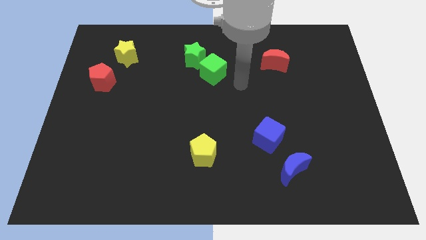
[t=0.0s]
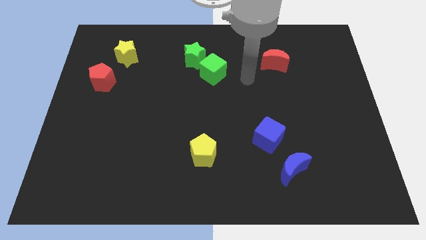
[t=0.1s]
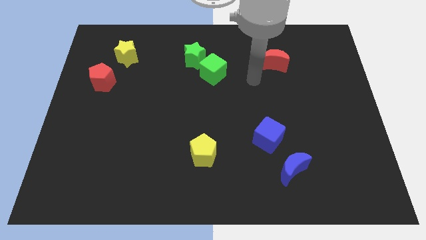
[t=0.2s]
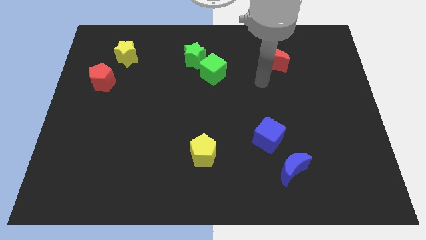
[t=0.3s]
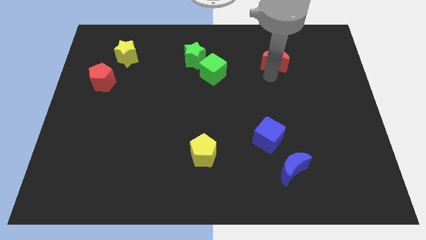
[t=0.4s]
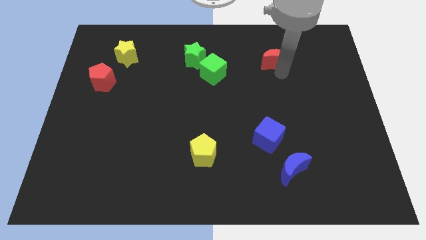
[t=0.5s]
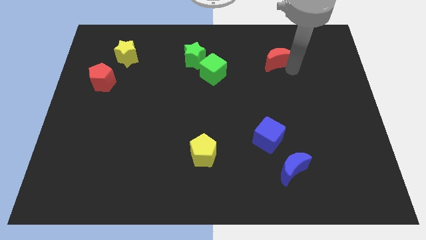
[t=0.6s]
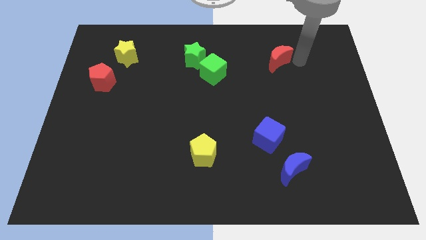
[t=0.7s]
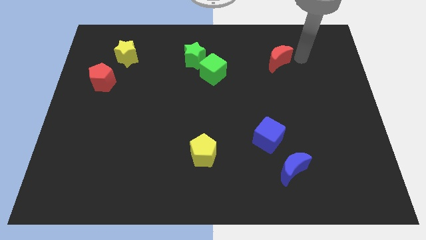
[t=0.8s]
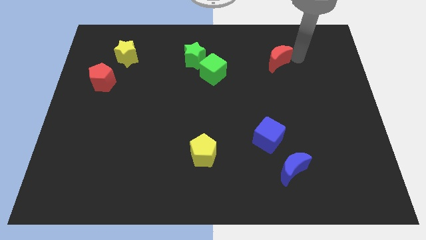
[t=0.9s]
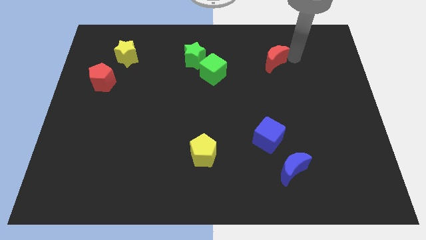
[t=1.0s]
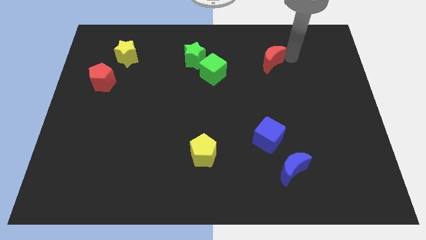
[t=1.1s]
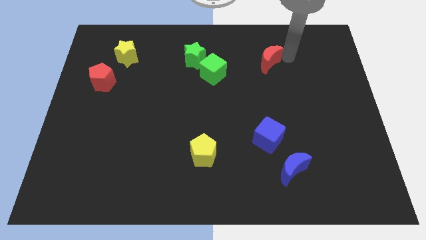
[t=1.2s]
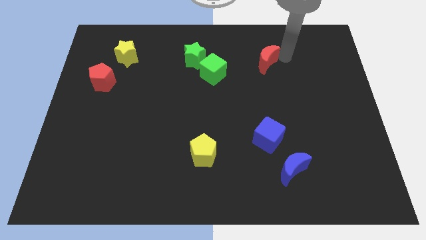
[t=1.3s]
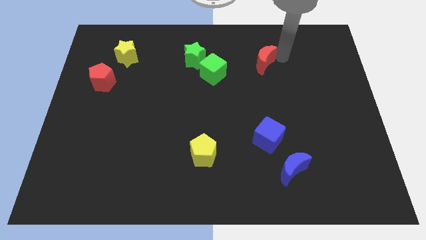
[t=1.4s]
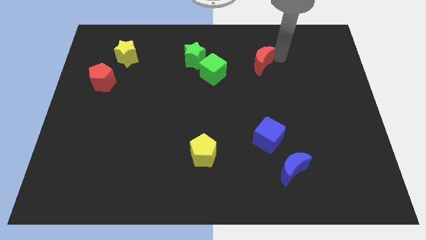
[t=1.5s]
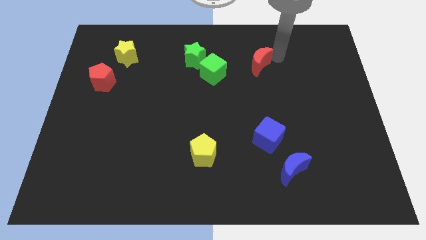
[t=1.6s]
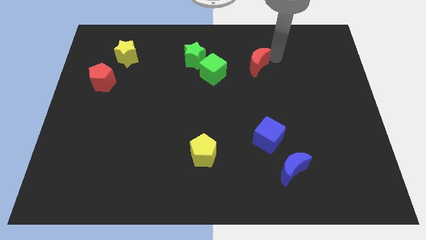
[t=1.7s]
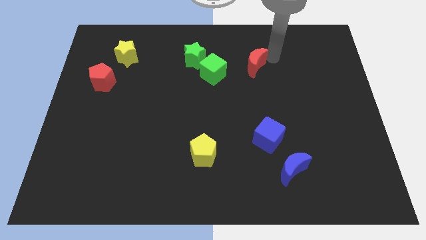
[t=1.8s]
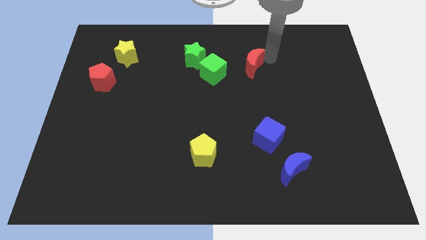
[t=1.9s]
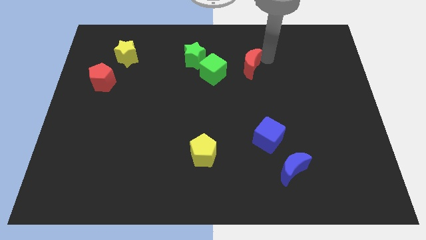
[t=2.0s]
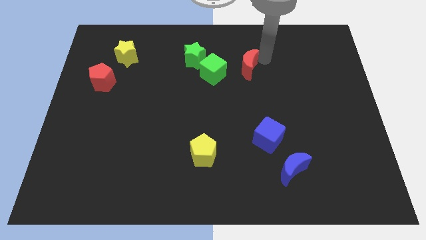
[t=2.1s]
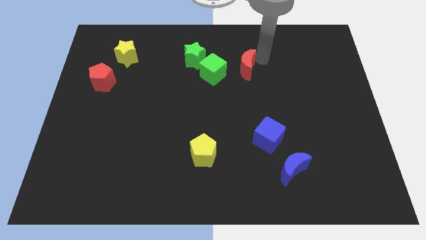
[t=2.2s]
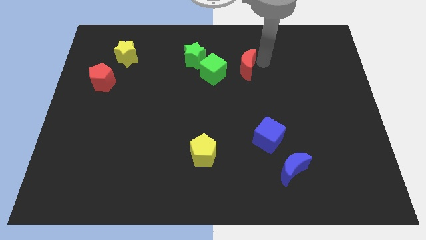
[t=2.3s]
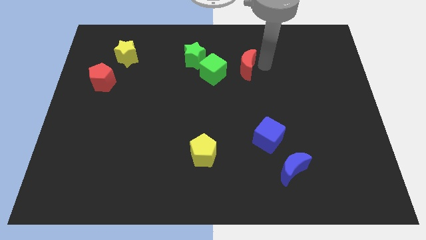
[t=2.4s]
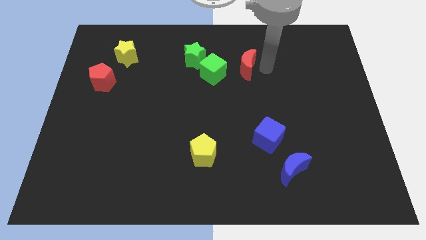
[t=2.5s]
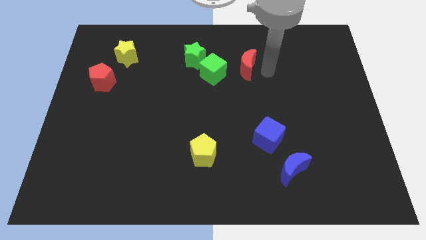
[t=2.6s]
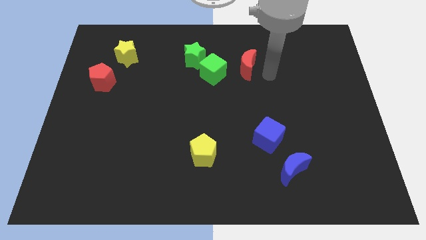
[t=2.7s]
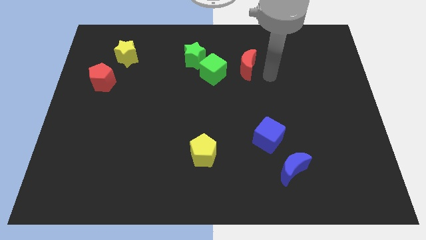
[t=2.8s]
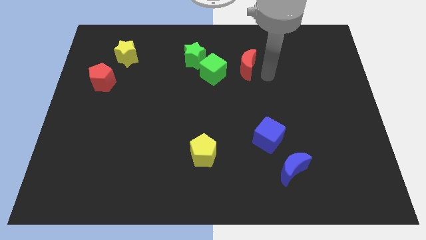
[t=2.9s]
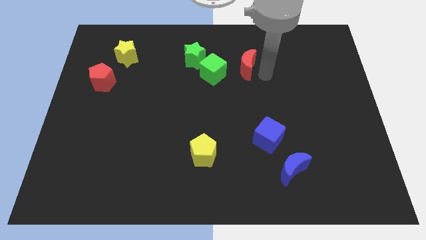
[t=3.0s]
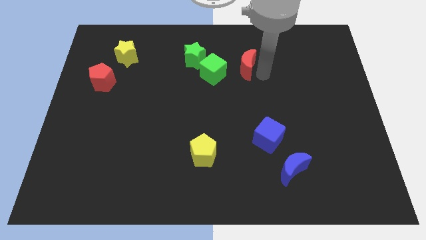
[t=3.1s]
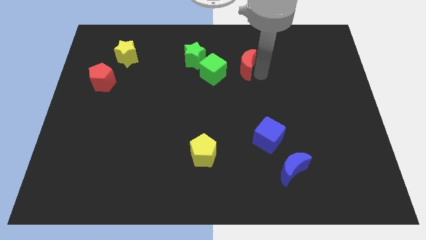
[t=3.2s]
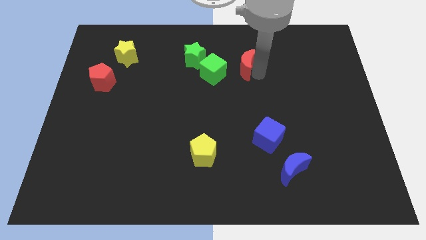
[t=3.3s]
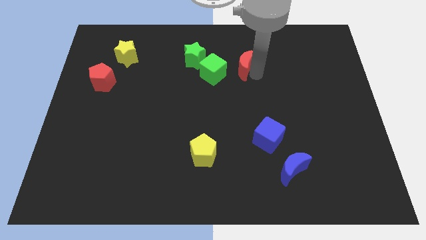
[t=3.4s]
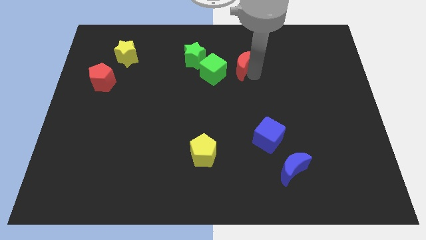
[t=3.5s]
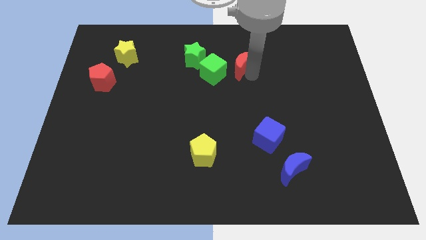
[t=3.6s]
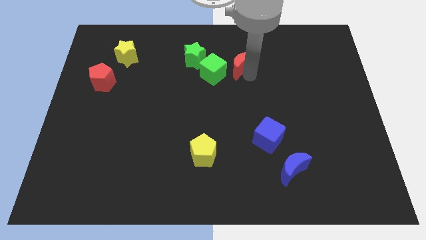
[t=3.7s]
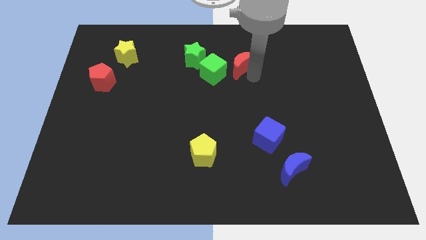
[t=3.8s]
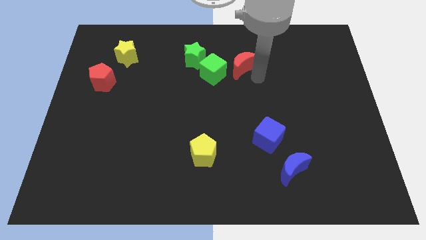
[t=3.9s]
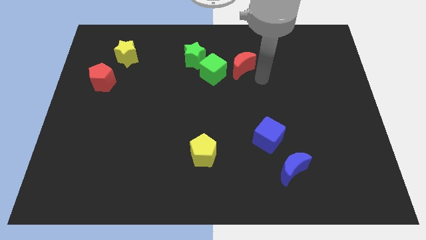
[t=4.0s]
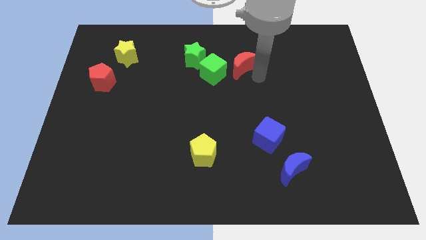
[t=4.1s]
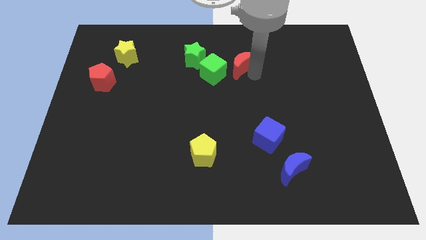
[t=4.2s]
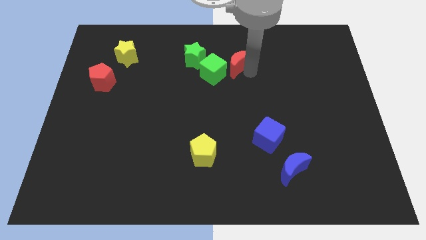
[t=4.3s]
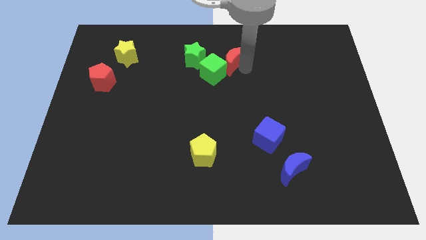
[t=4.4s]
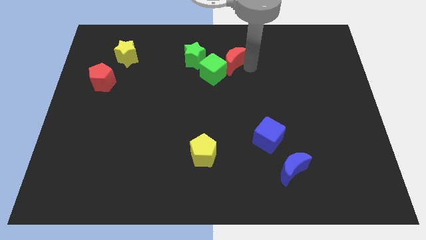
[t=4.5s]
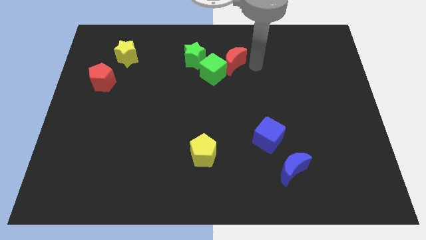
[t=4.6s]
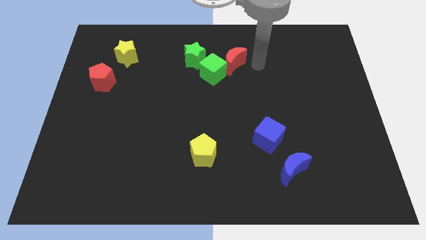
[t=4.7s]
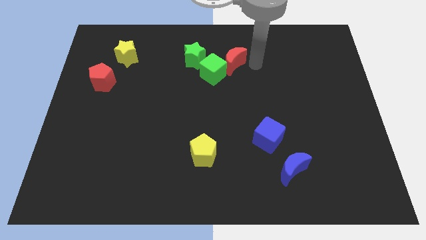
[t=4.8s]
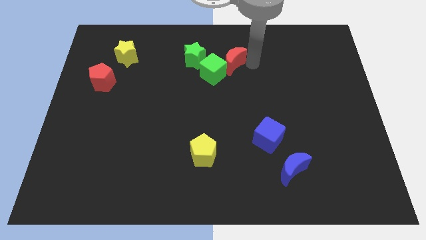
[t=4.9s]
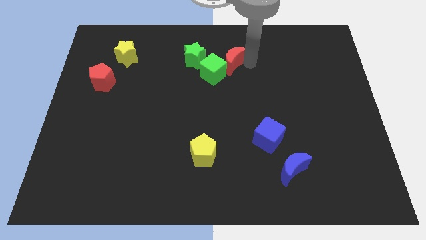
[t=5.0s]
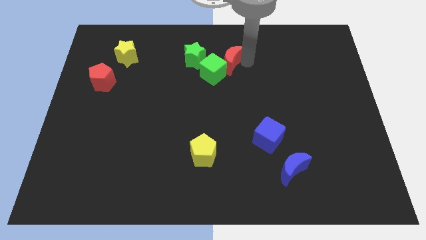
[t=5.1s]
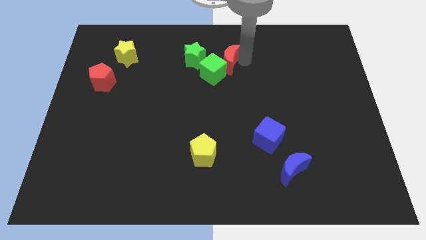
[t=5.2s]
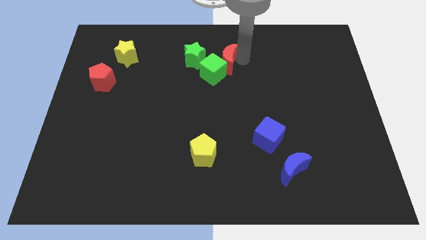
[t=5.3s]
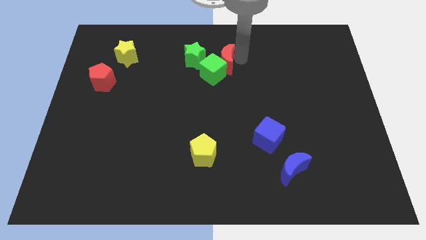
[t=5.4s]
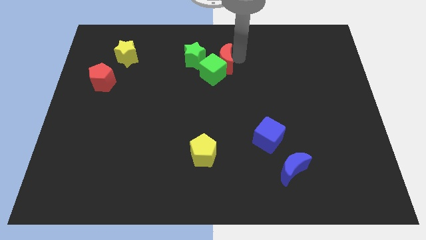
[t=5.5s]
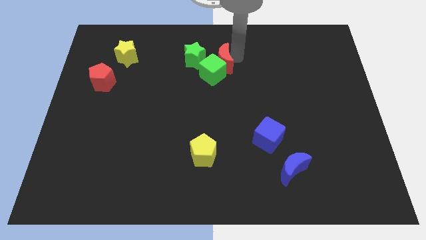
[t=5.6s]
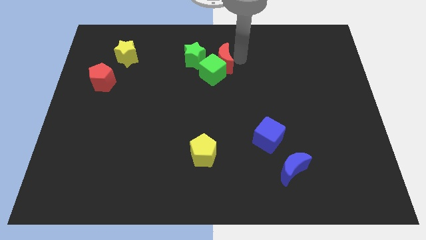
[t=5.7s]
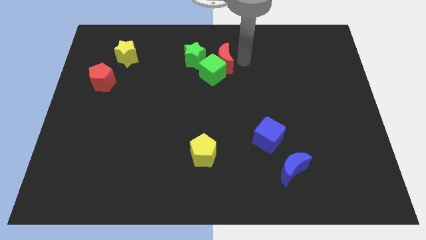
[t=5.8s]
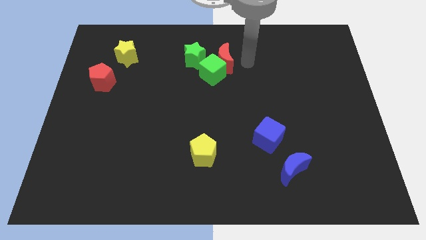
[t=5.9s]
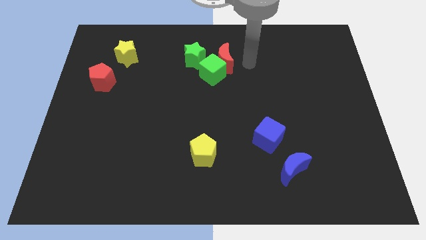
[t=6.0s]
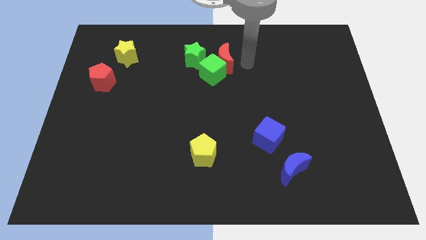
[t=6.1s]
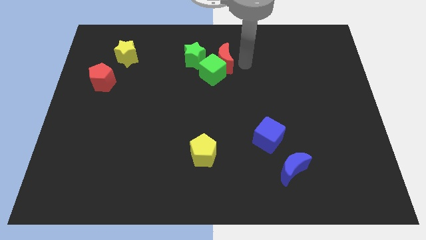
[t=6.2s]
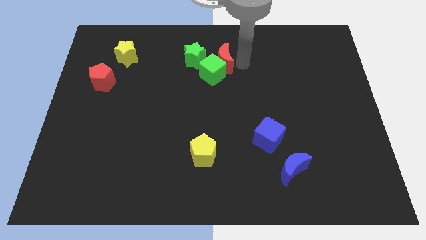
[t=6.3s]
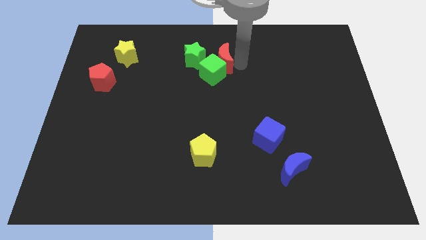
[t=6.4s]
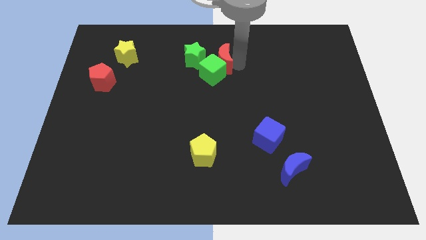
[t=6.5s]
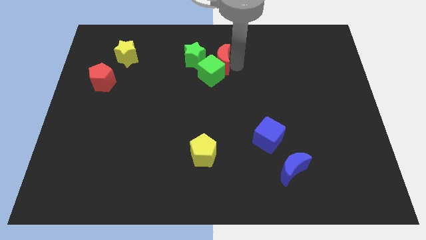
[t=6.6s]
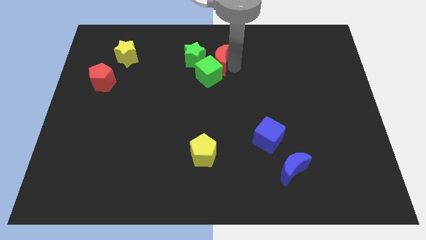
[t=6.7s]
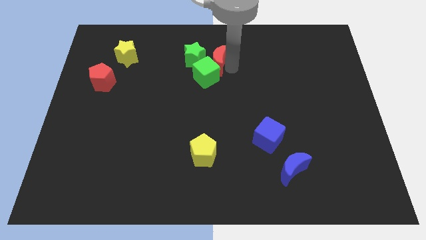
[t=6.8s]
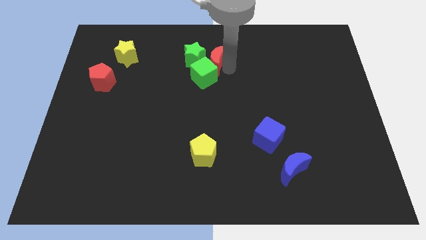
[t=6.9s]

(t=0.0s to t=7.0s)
slide the red moon towards the green star
